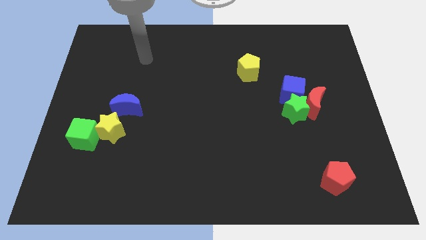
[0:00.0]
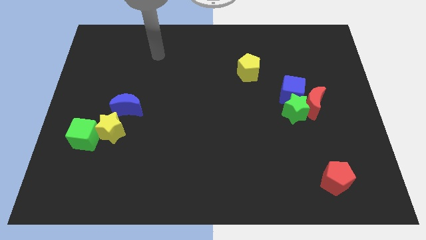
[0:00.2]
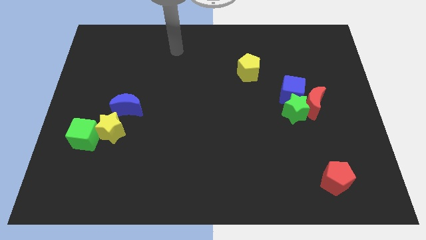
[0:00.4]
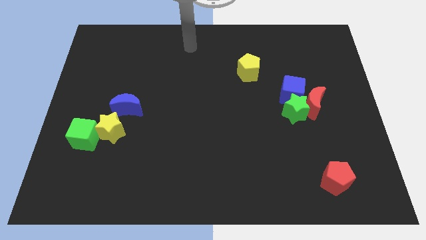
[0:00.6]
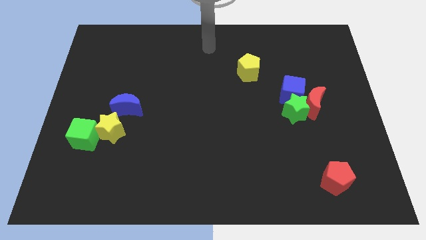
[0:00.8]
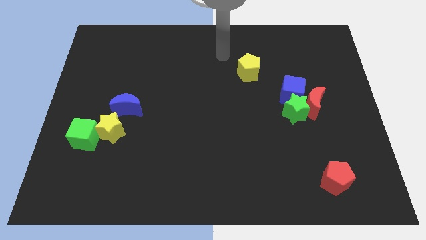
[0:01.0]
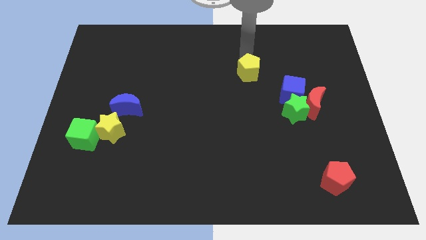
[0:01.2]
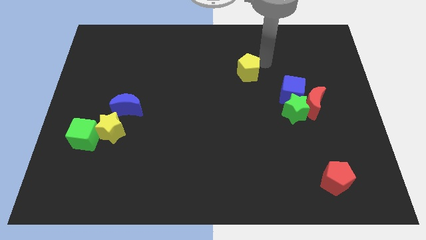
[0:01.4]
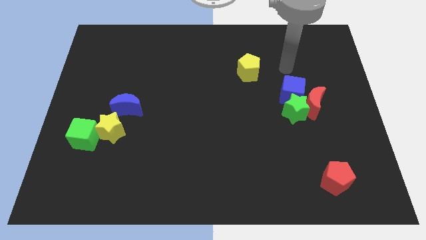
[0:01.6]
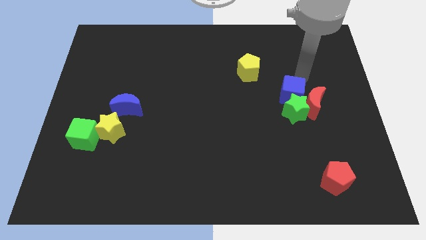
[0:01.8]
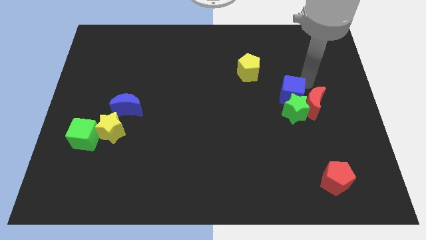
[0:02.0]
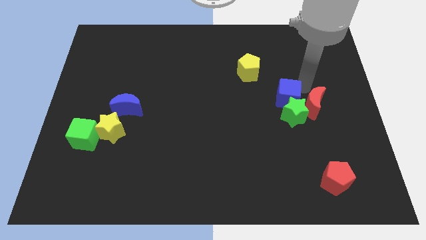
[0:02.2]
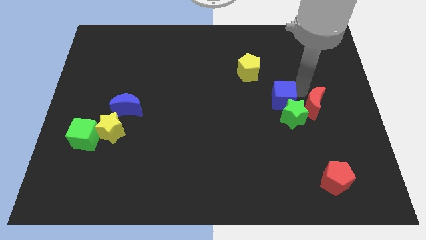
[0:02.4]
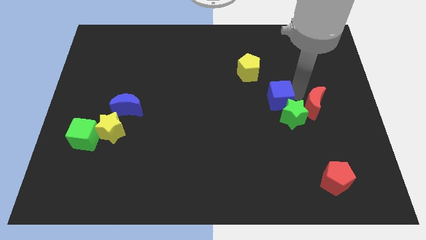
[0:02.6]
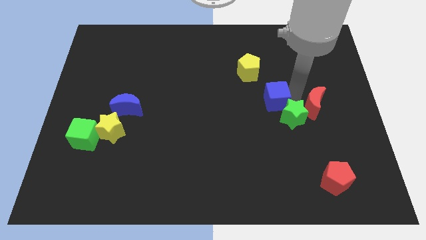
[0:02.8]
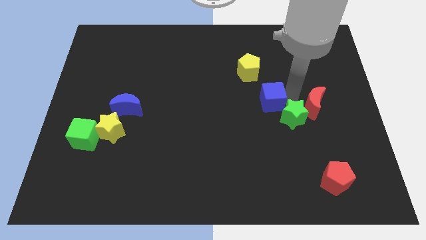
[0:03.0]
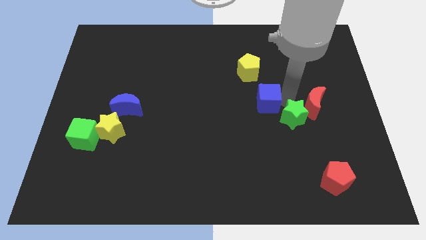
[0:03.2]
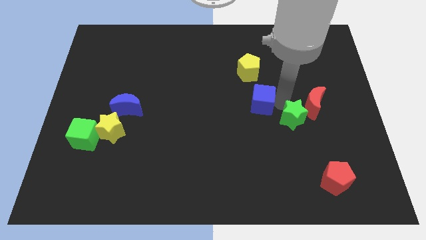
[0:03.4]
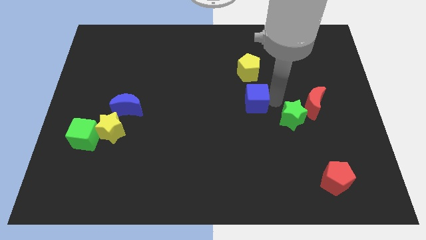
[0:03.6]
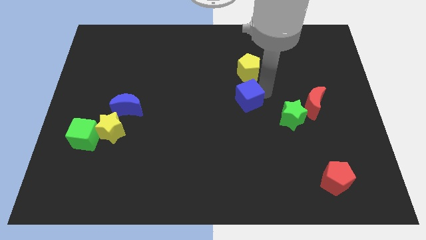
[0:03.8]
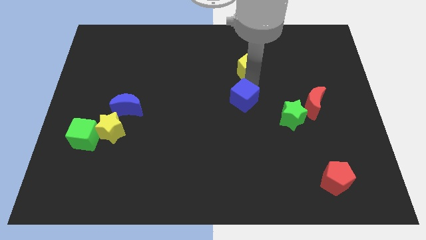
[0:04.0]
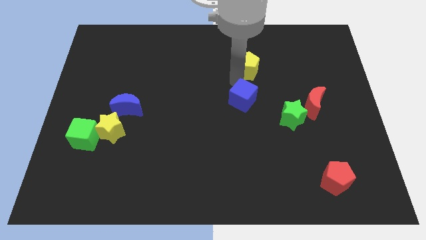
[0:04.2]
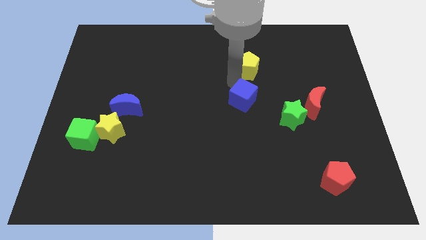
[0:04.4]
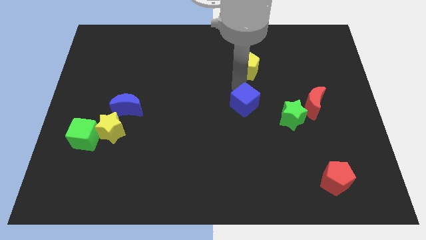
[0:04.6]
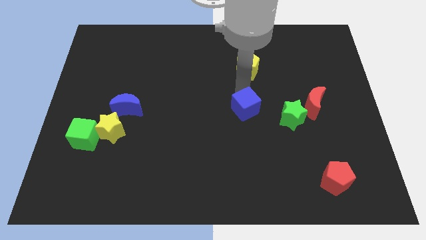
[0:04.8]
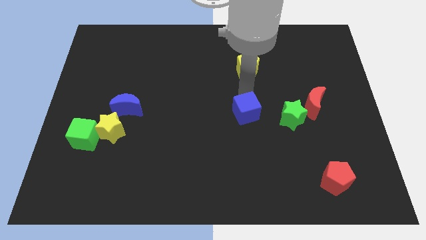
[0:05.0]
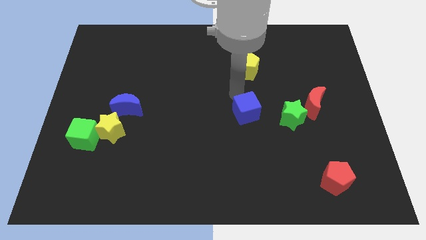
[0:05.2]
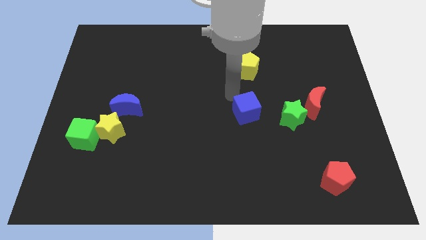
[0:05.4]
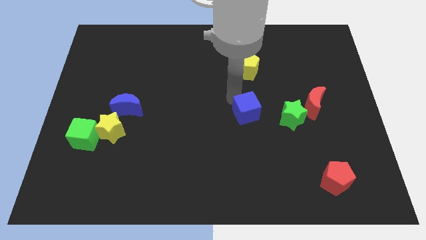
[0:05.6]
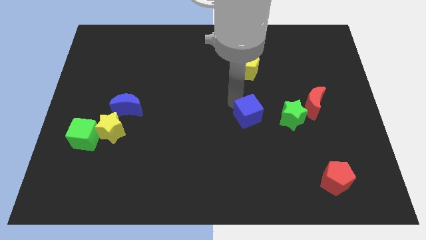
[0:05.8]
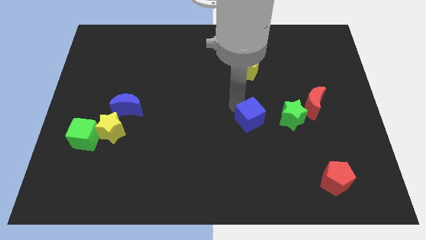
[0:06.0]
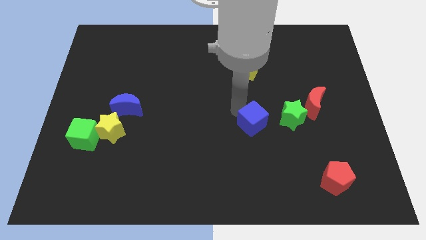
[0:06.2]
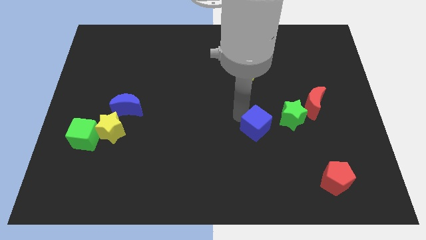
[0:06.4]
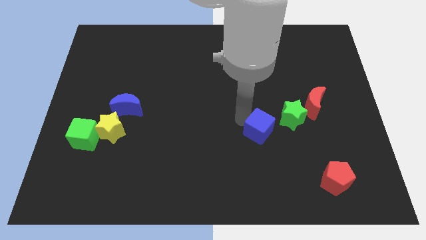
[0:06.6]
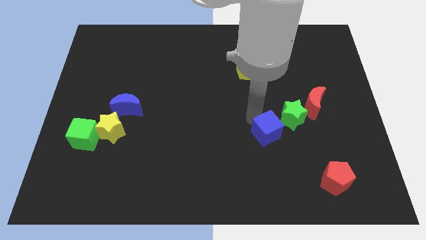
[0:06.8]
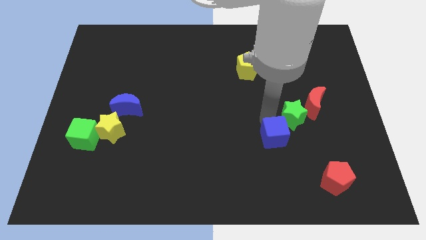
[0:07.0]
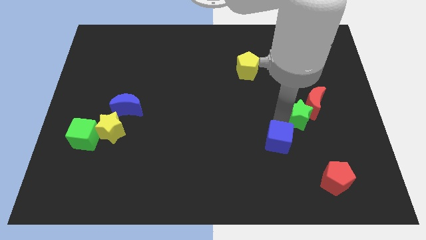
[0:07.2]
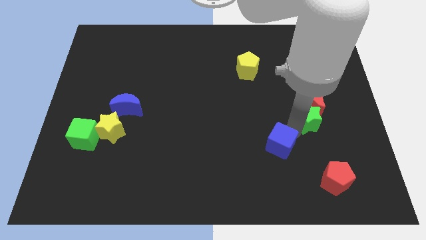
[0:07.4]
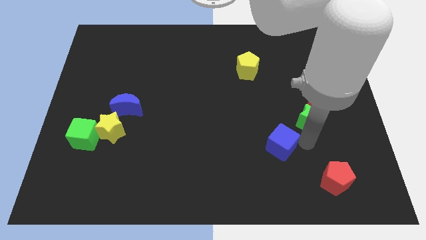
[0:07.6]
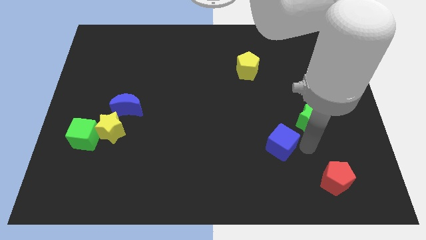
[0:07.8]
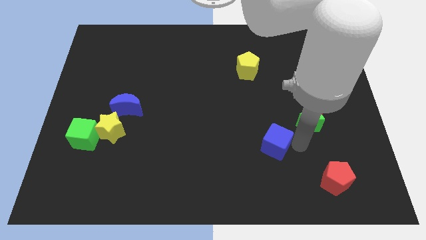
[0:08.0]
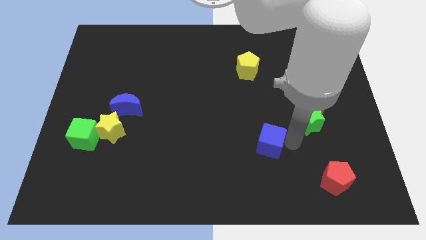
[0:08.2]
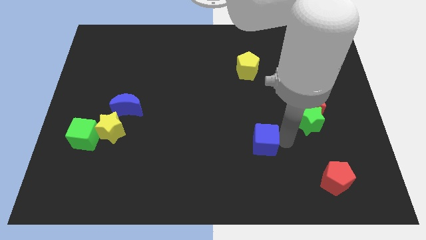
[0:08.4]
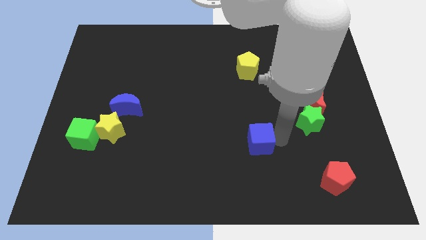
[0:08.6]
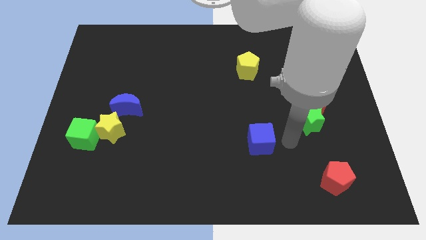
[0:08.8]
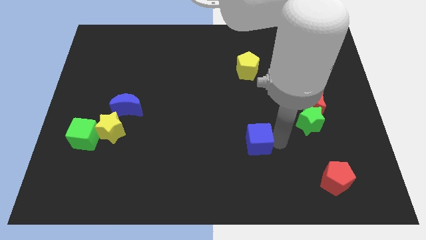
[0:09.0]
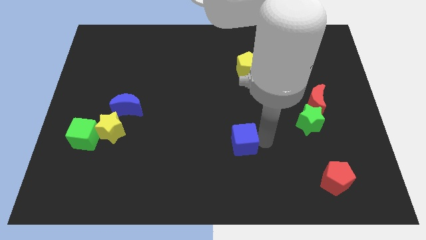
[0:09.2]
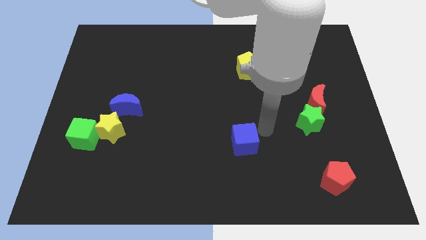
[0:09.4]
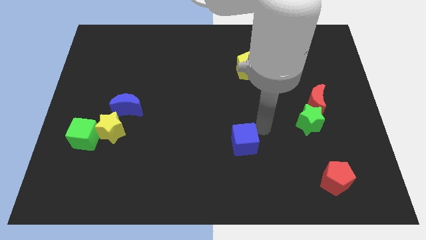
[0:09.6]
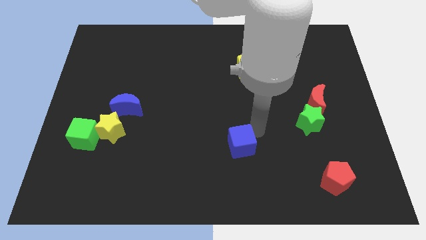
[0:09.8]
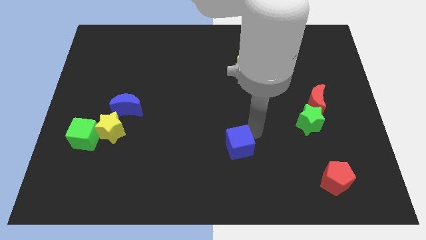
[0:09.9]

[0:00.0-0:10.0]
slide the blue cube downwards and to the left

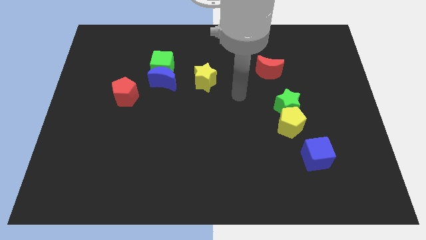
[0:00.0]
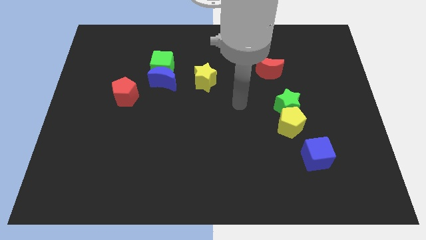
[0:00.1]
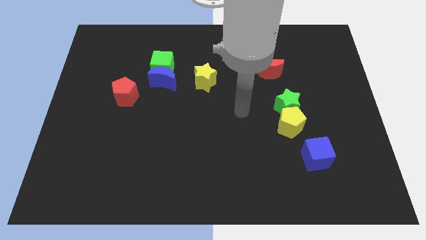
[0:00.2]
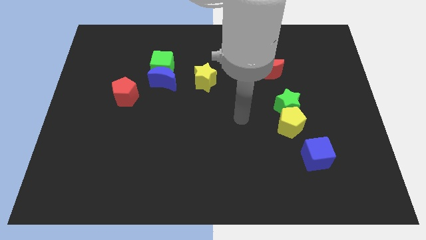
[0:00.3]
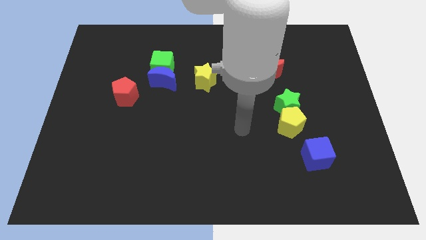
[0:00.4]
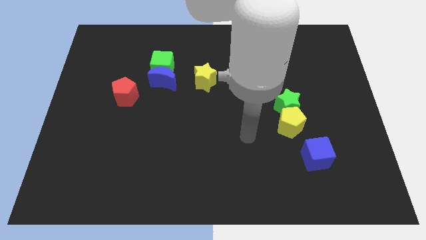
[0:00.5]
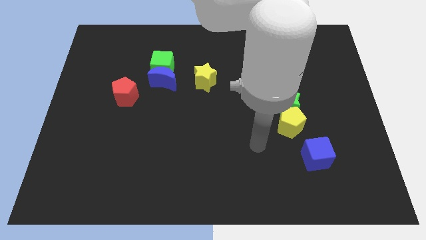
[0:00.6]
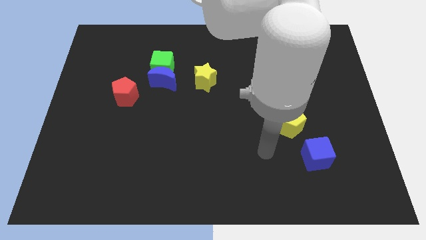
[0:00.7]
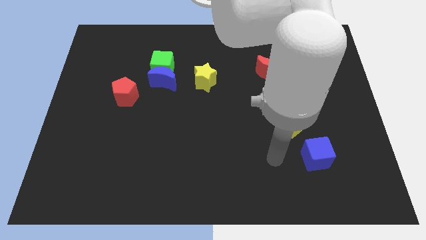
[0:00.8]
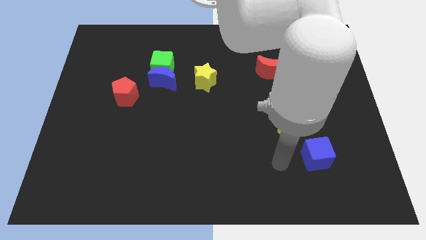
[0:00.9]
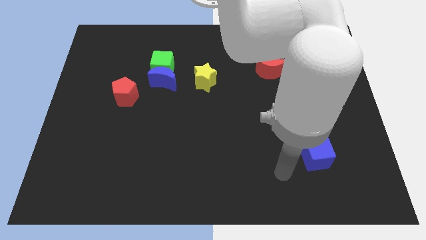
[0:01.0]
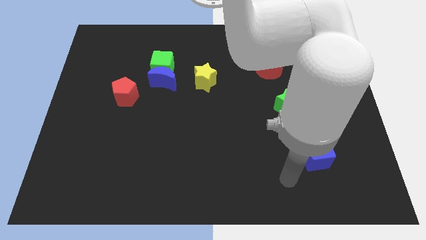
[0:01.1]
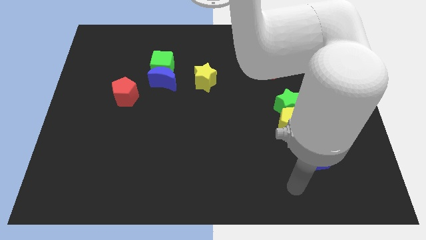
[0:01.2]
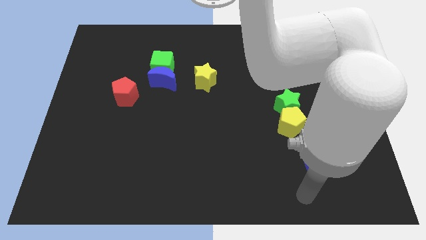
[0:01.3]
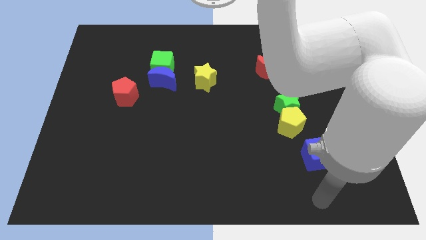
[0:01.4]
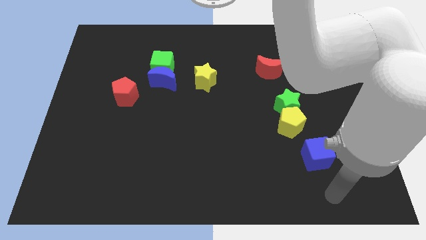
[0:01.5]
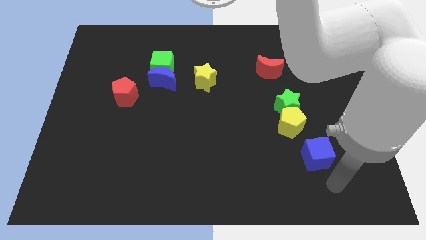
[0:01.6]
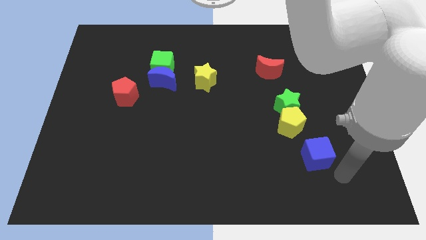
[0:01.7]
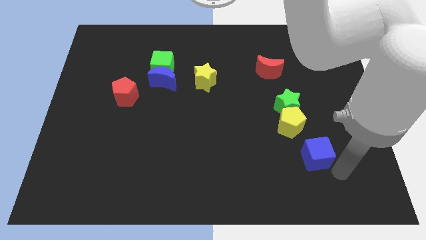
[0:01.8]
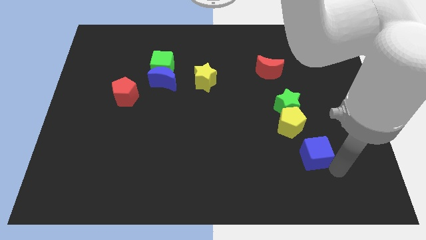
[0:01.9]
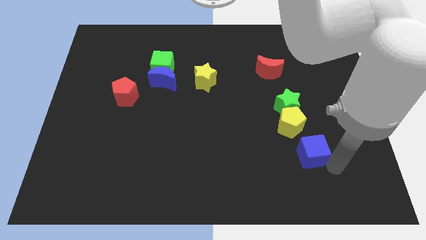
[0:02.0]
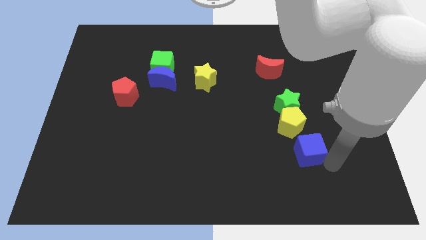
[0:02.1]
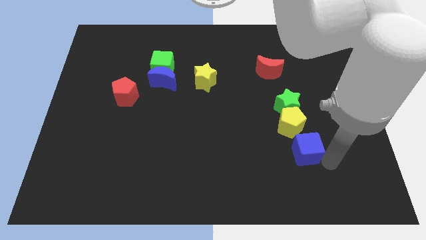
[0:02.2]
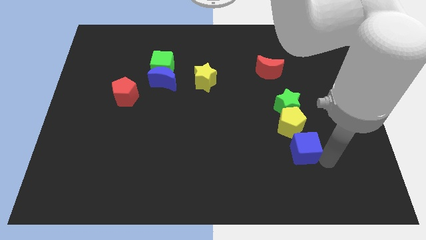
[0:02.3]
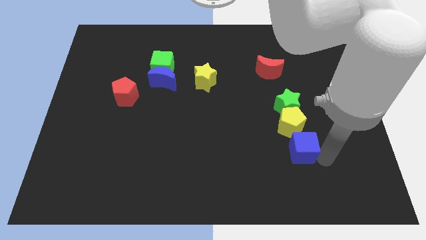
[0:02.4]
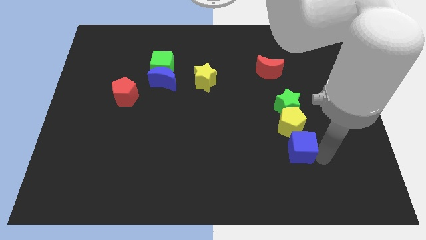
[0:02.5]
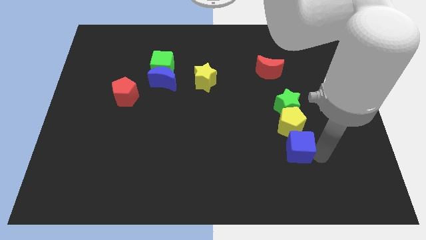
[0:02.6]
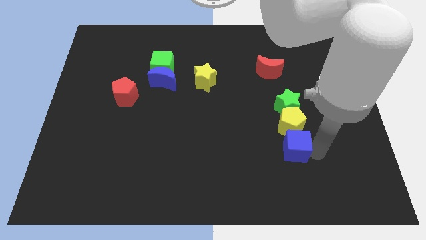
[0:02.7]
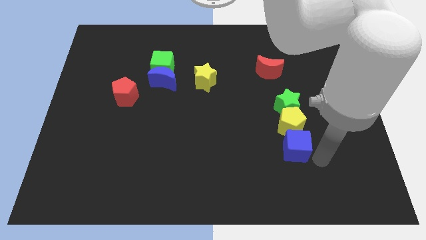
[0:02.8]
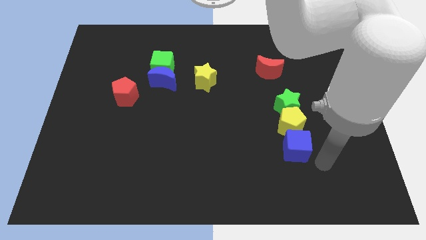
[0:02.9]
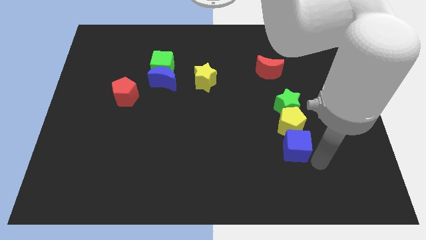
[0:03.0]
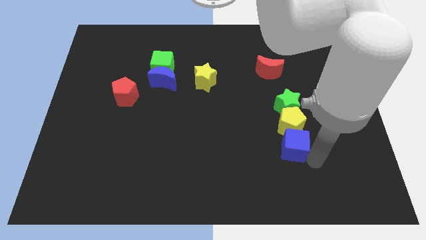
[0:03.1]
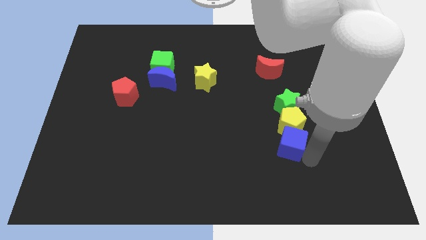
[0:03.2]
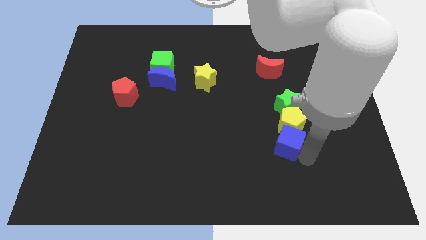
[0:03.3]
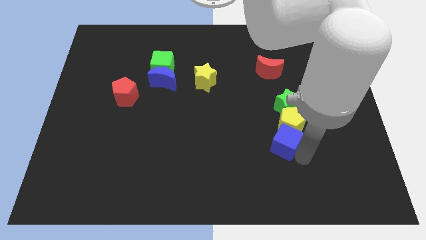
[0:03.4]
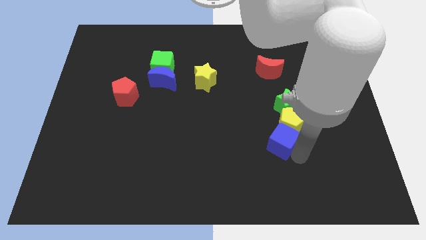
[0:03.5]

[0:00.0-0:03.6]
slightly move the blue cube diagonally upwards and left
